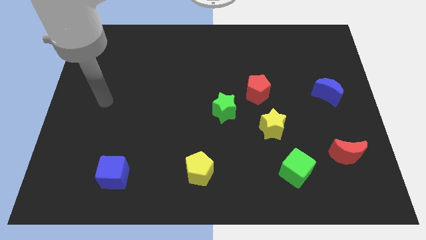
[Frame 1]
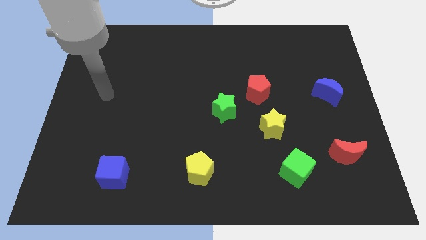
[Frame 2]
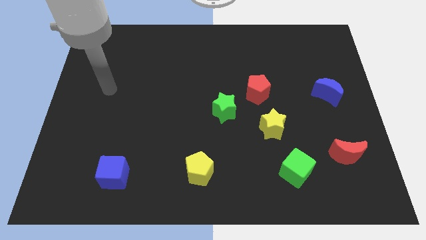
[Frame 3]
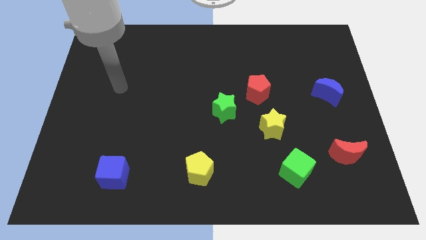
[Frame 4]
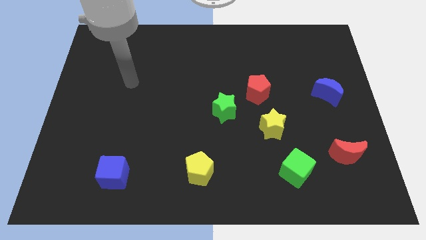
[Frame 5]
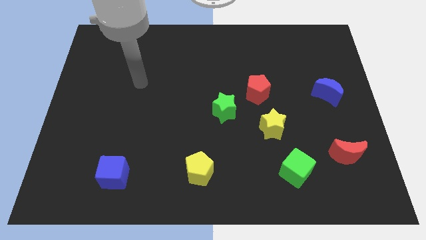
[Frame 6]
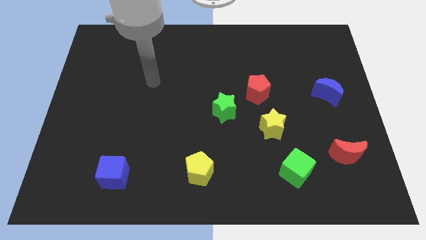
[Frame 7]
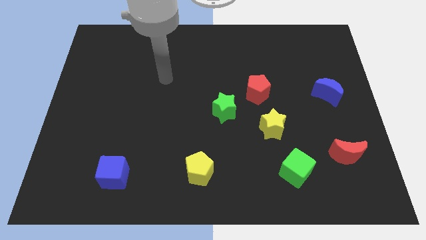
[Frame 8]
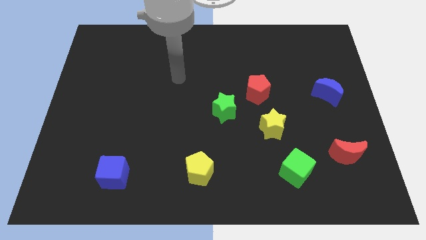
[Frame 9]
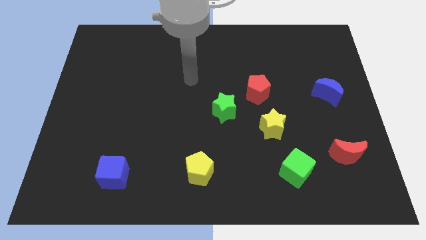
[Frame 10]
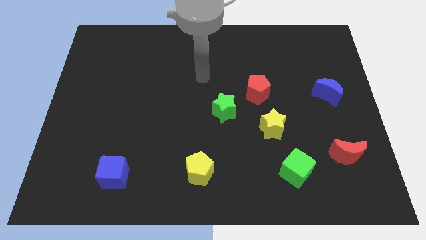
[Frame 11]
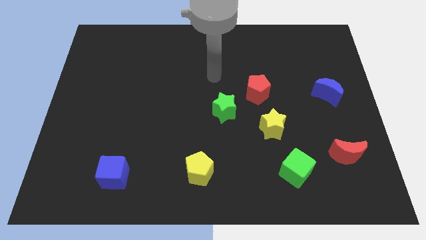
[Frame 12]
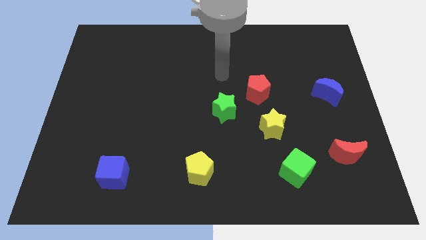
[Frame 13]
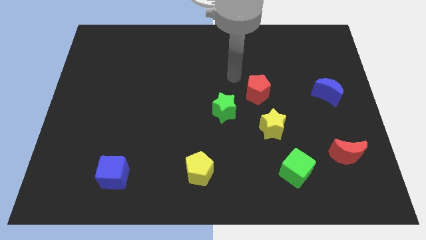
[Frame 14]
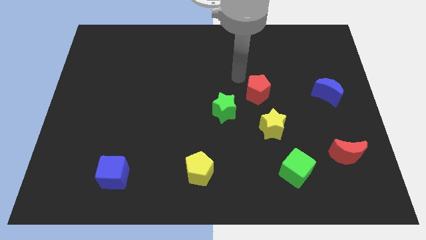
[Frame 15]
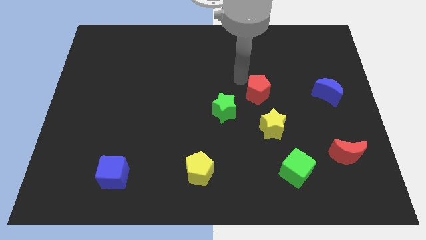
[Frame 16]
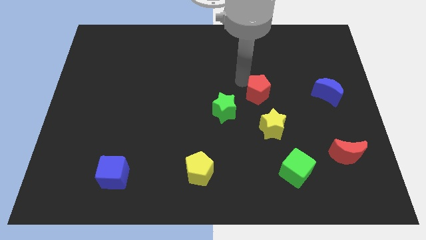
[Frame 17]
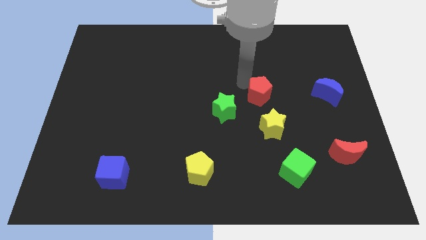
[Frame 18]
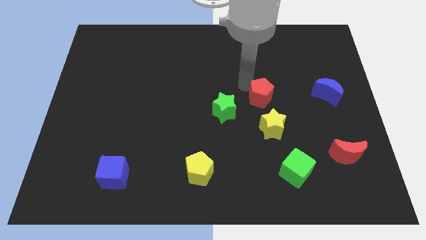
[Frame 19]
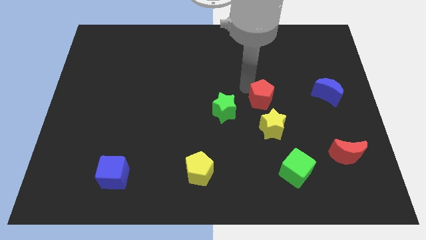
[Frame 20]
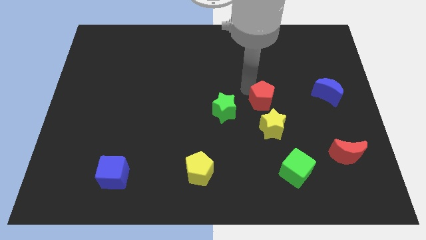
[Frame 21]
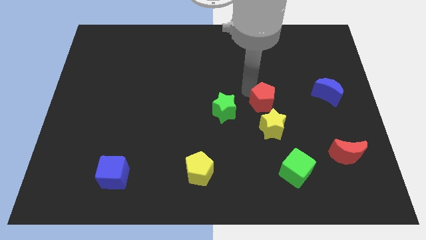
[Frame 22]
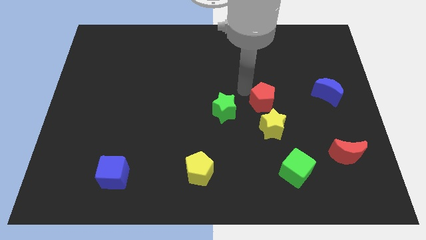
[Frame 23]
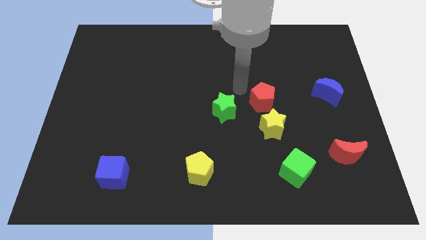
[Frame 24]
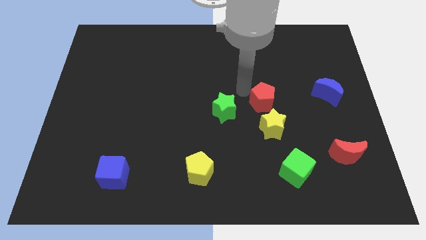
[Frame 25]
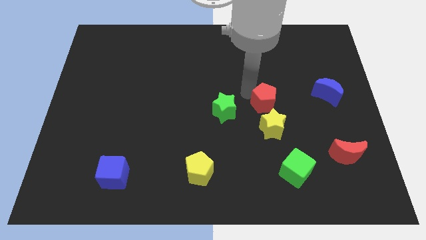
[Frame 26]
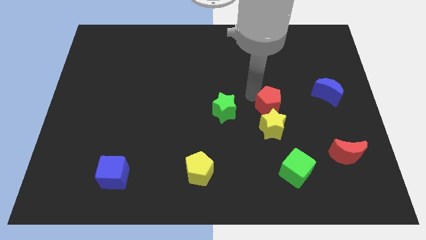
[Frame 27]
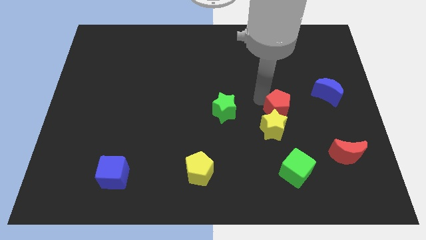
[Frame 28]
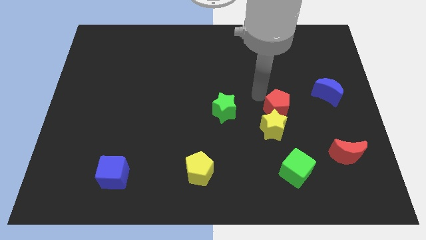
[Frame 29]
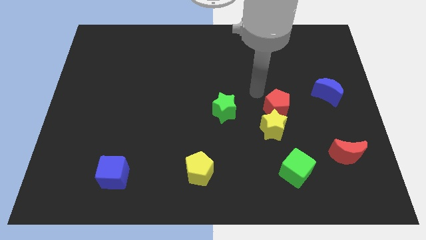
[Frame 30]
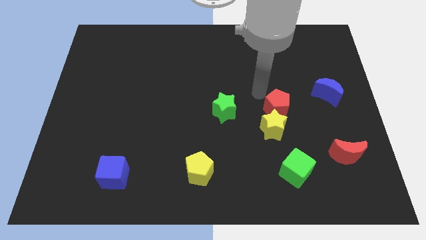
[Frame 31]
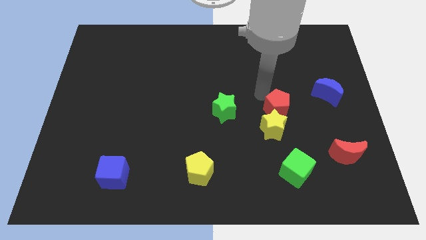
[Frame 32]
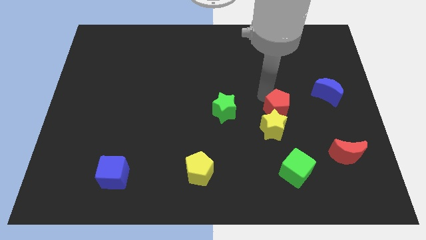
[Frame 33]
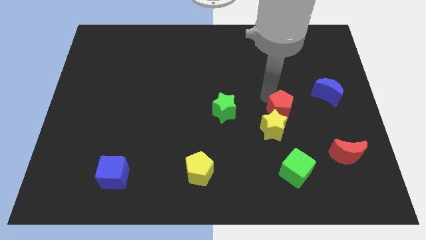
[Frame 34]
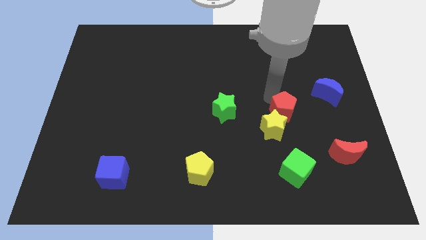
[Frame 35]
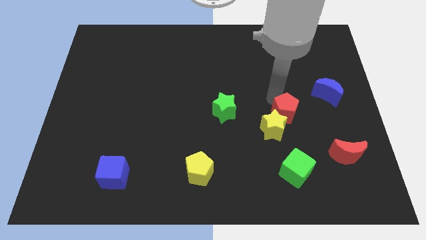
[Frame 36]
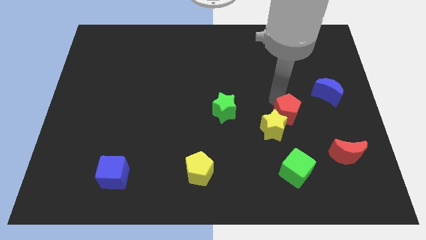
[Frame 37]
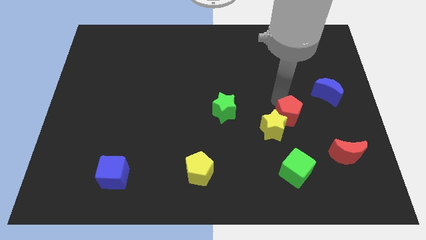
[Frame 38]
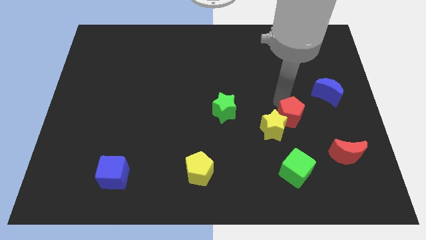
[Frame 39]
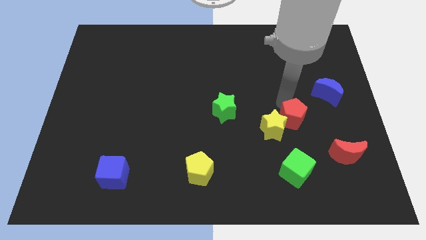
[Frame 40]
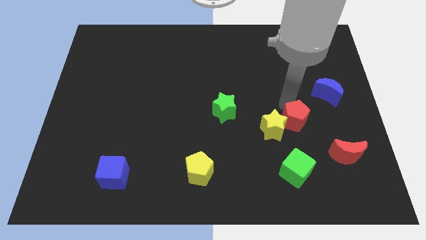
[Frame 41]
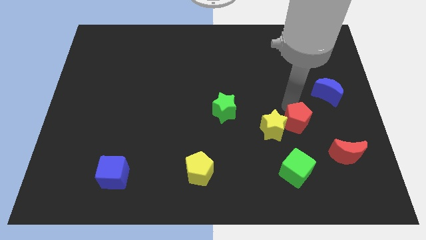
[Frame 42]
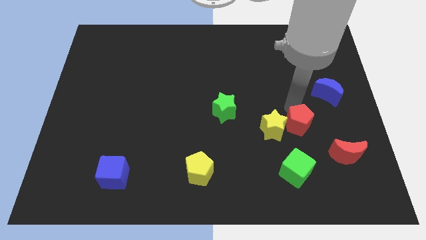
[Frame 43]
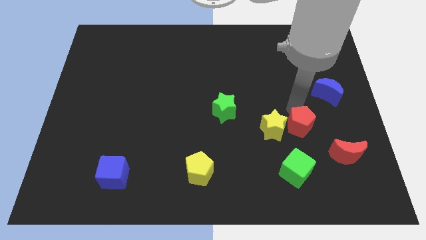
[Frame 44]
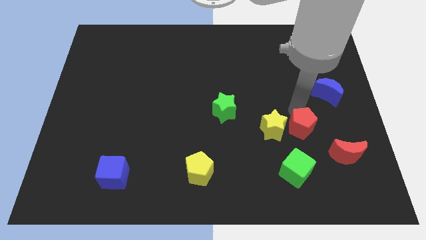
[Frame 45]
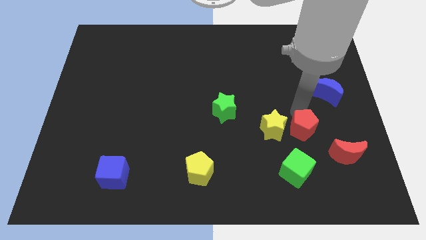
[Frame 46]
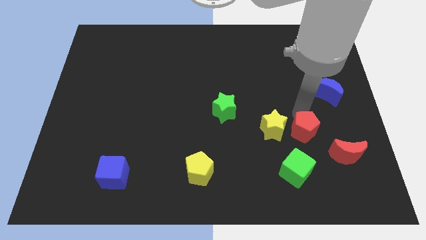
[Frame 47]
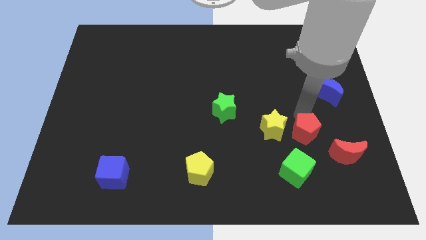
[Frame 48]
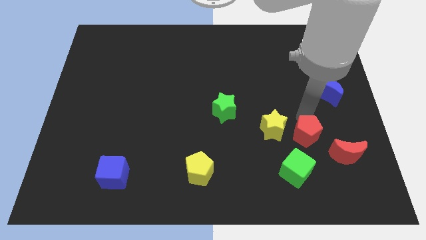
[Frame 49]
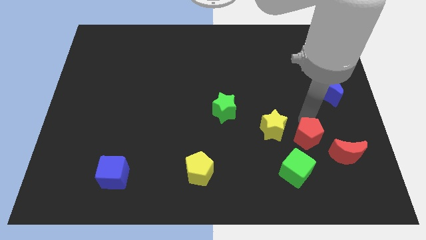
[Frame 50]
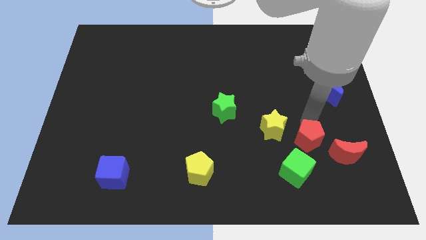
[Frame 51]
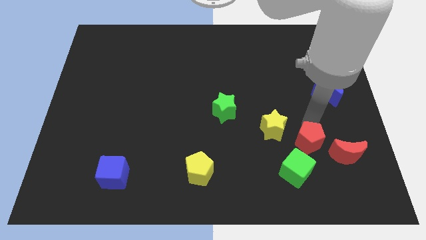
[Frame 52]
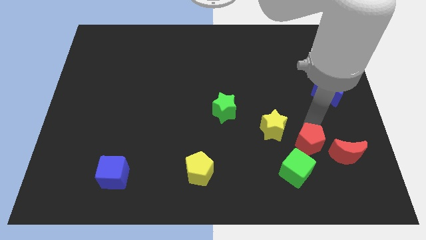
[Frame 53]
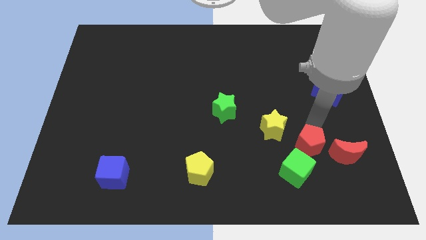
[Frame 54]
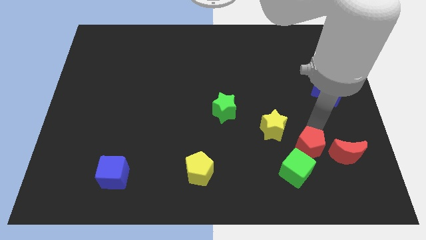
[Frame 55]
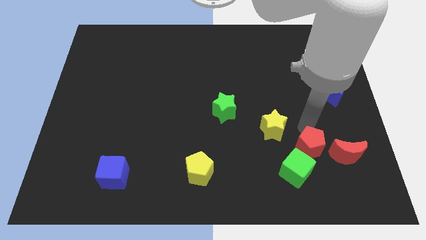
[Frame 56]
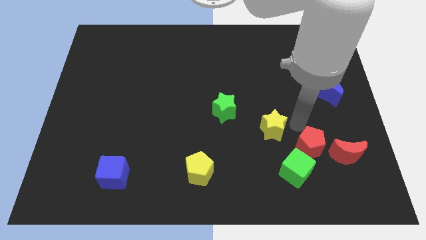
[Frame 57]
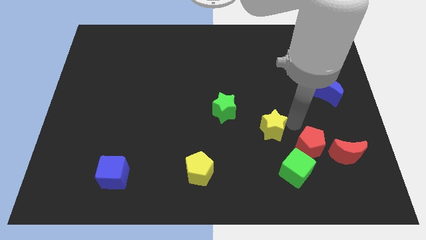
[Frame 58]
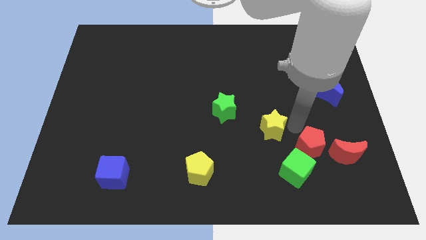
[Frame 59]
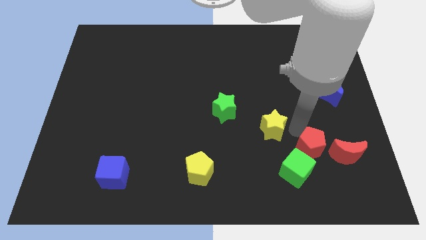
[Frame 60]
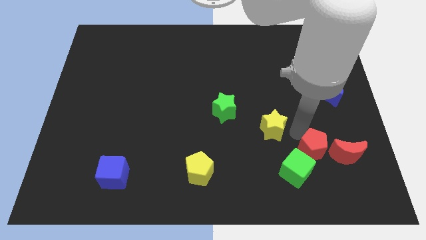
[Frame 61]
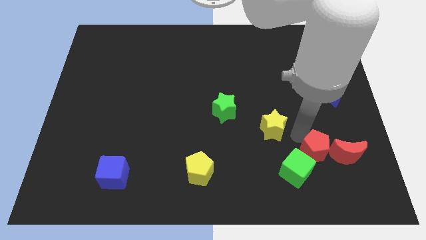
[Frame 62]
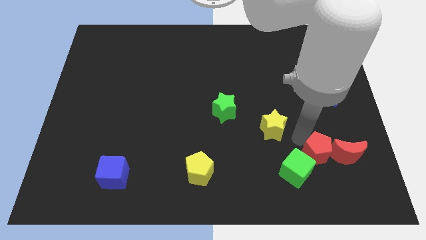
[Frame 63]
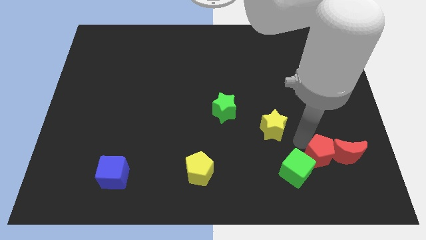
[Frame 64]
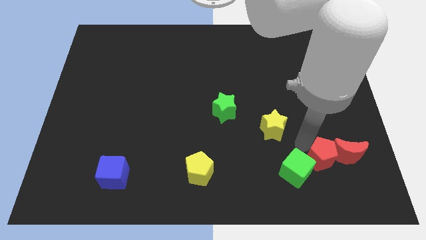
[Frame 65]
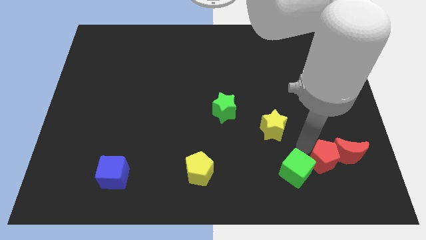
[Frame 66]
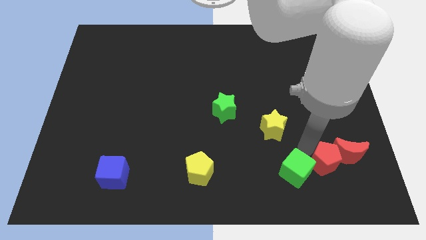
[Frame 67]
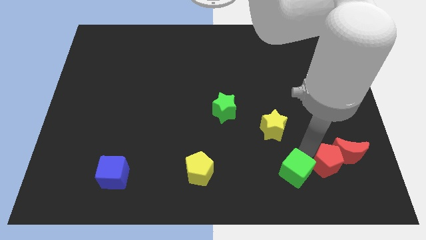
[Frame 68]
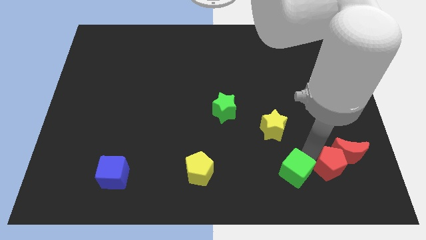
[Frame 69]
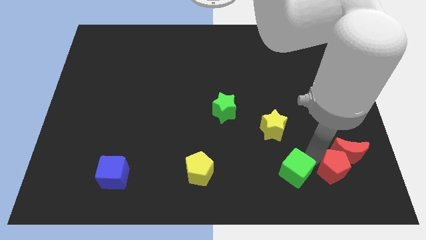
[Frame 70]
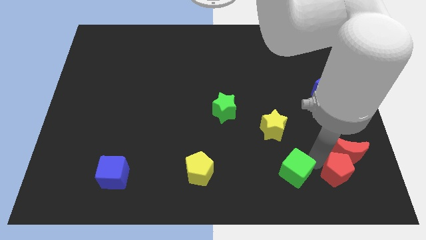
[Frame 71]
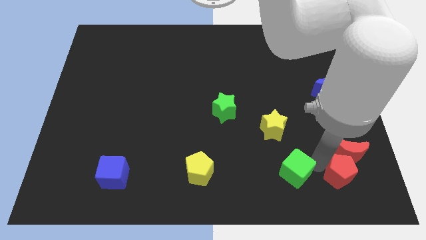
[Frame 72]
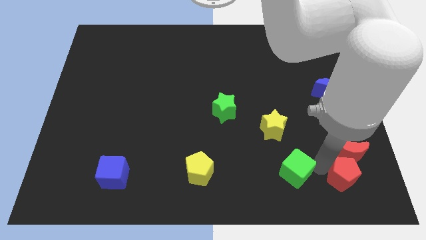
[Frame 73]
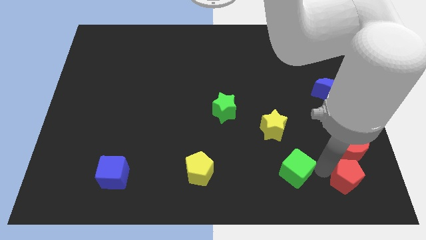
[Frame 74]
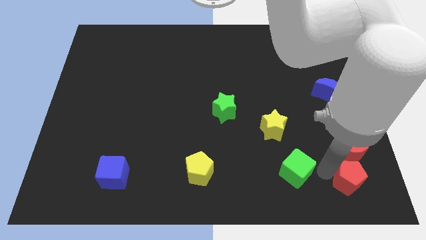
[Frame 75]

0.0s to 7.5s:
slide the red pentagon to the lower right corner
